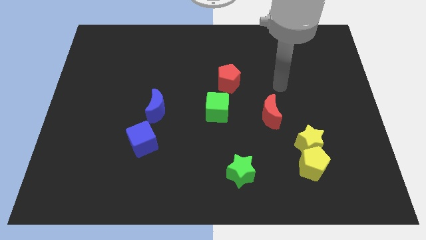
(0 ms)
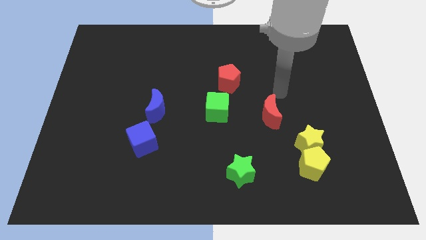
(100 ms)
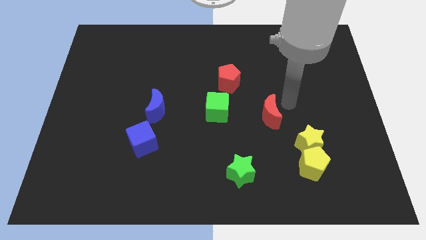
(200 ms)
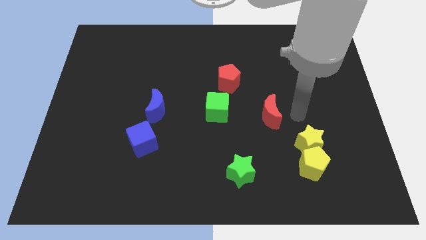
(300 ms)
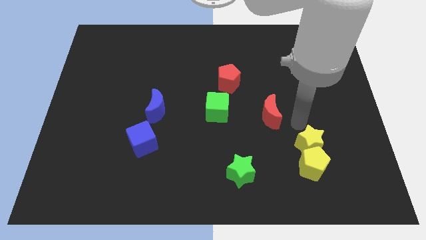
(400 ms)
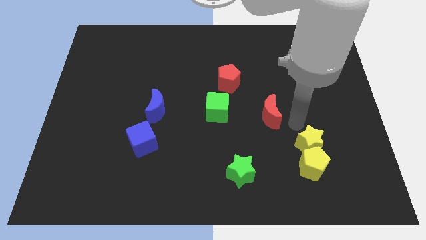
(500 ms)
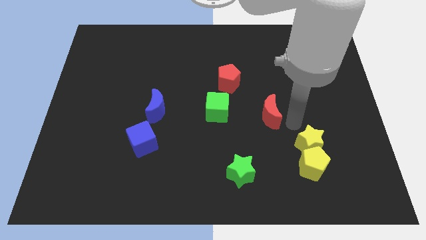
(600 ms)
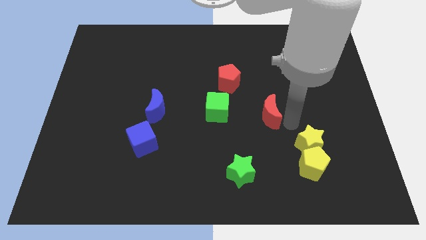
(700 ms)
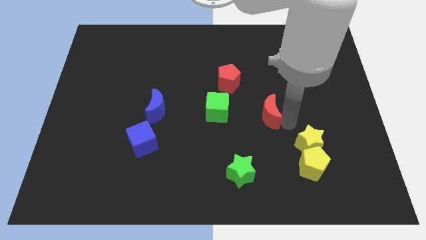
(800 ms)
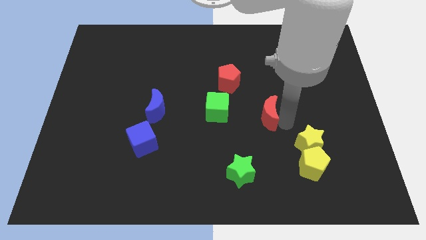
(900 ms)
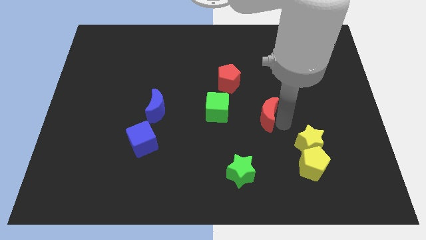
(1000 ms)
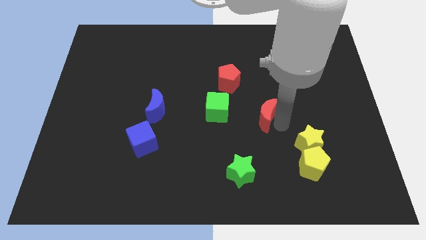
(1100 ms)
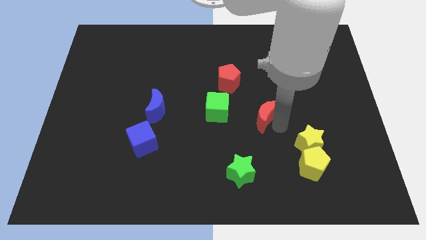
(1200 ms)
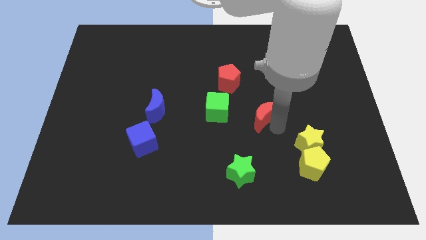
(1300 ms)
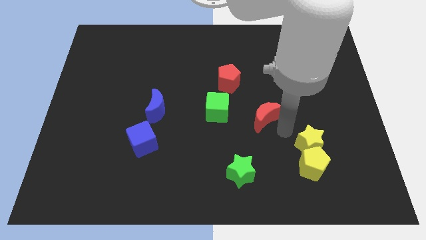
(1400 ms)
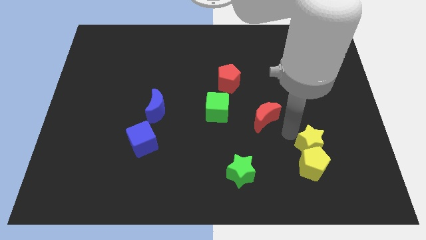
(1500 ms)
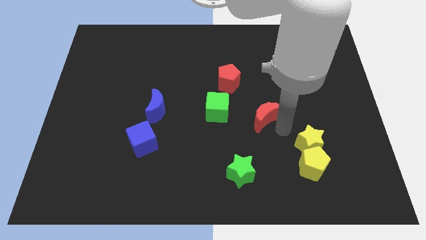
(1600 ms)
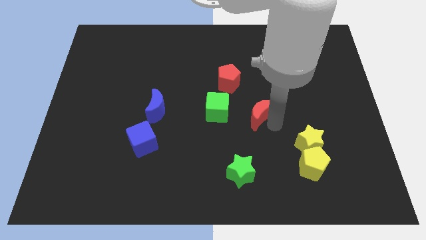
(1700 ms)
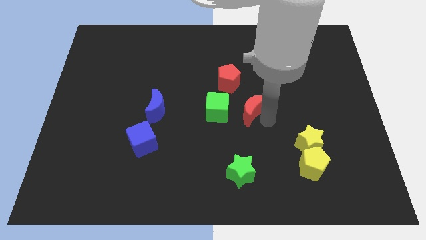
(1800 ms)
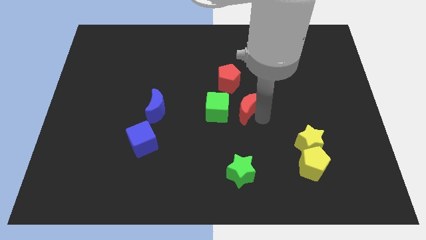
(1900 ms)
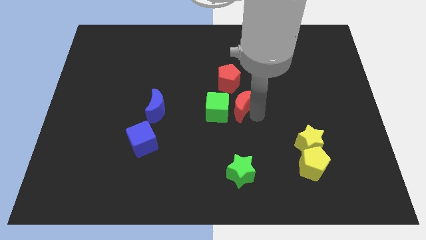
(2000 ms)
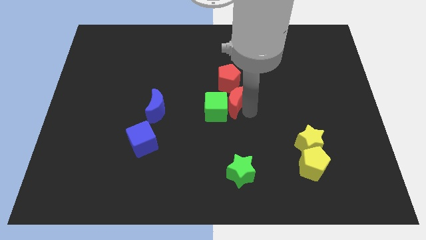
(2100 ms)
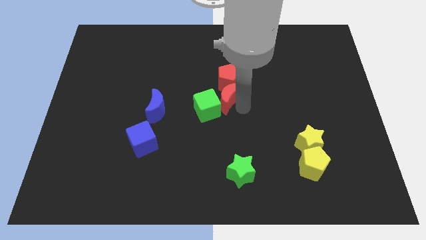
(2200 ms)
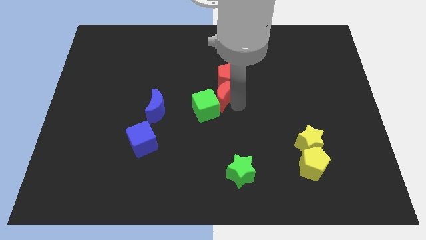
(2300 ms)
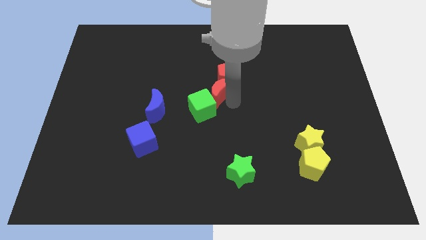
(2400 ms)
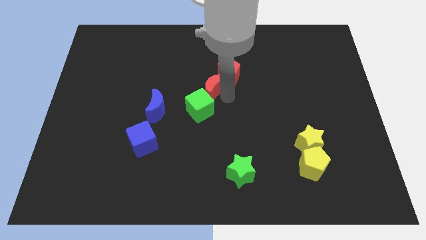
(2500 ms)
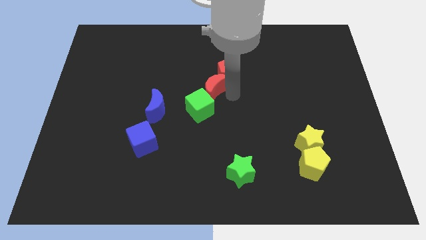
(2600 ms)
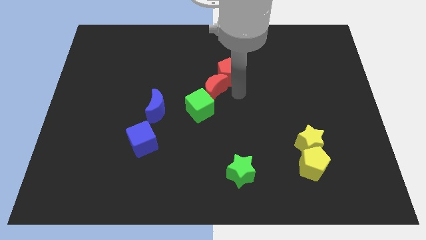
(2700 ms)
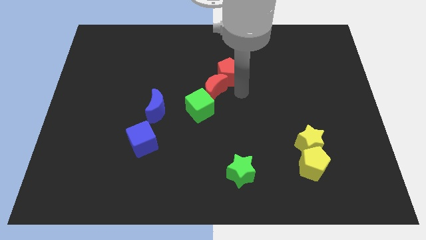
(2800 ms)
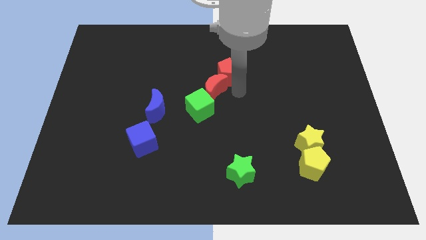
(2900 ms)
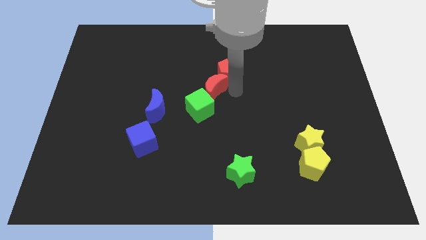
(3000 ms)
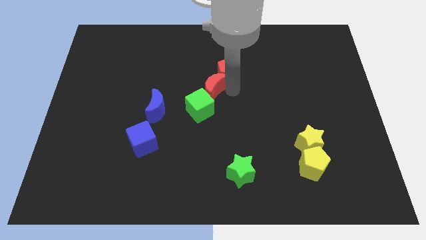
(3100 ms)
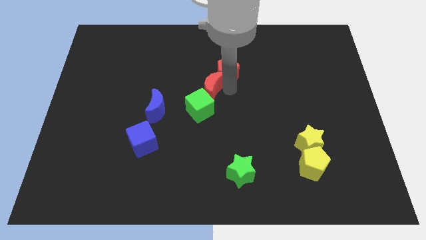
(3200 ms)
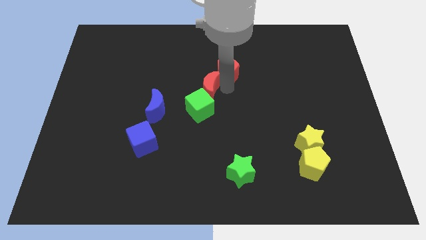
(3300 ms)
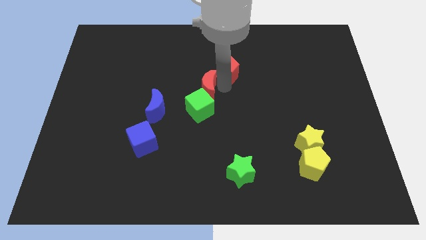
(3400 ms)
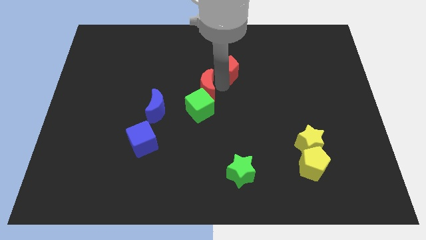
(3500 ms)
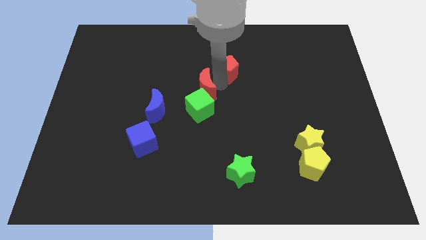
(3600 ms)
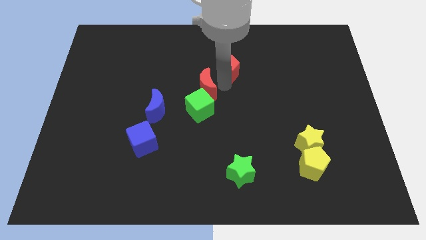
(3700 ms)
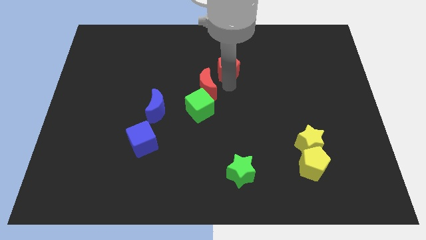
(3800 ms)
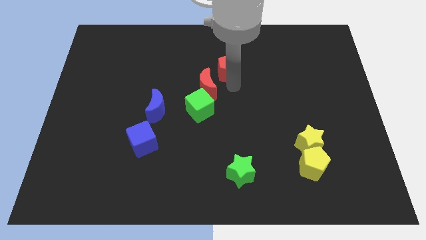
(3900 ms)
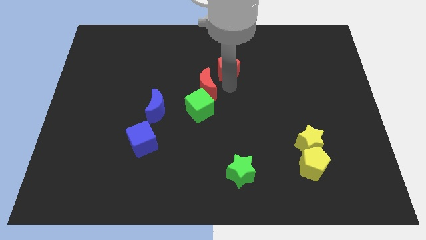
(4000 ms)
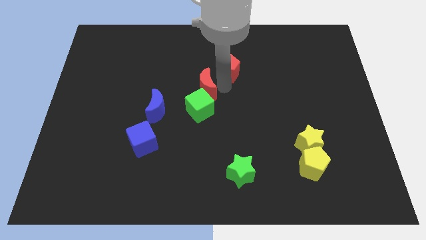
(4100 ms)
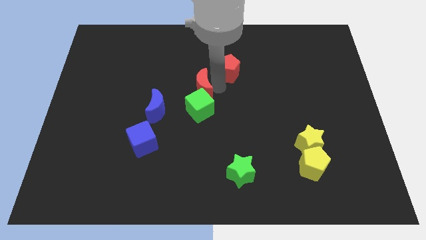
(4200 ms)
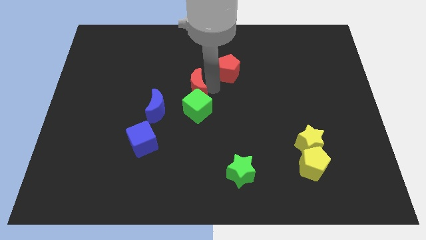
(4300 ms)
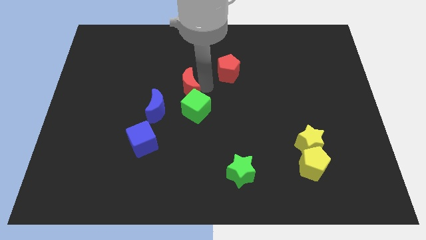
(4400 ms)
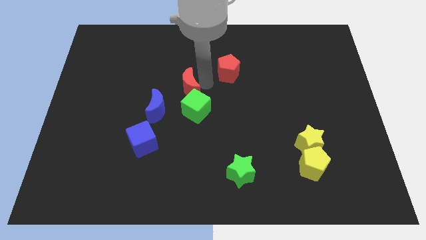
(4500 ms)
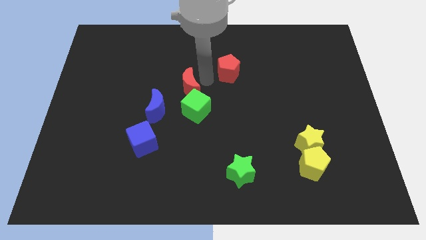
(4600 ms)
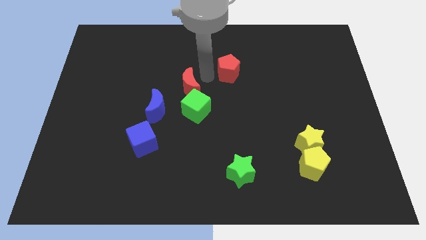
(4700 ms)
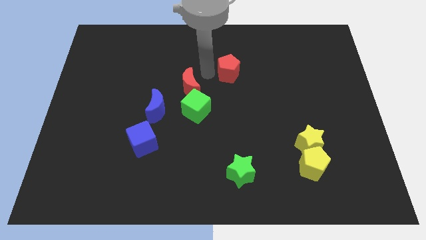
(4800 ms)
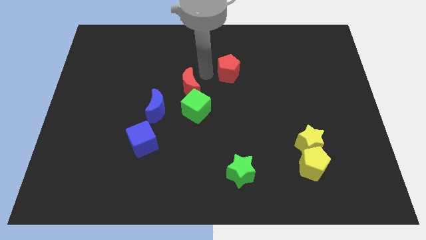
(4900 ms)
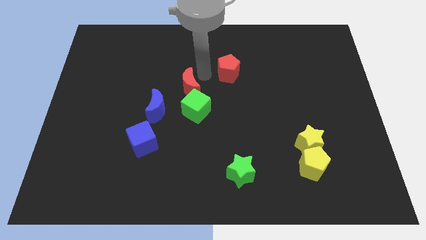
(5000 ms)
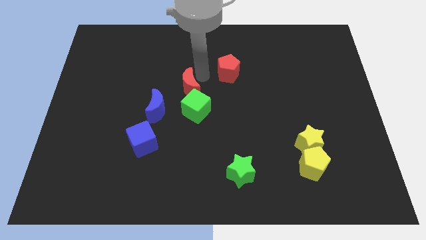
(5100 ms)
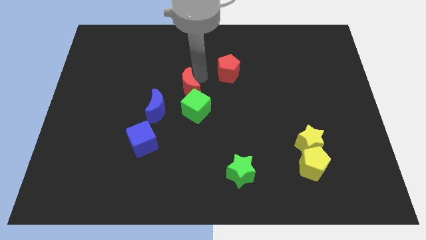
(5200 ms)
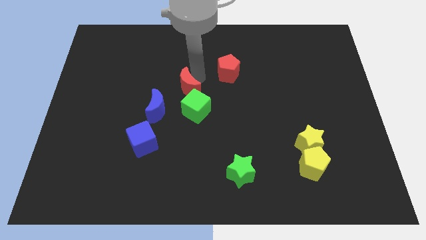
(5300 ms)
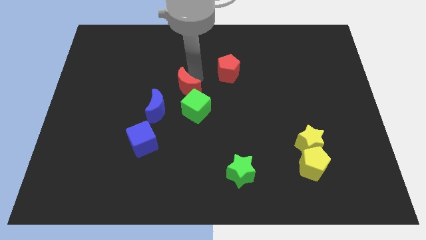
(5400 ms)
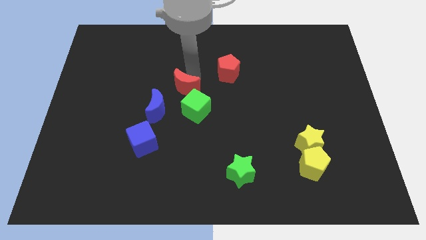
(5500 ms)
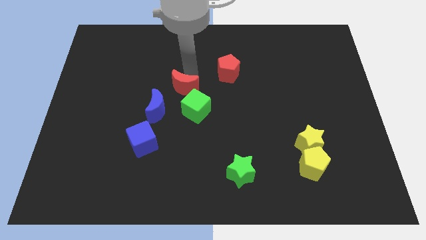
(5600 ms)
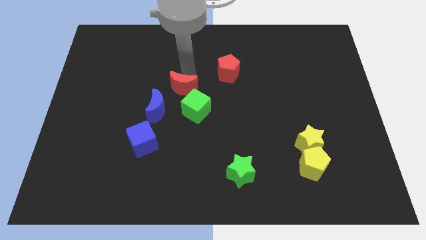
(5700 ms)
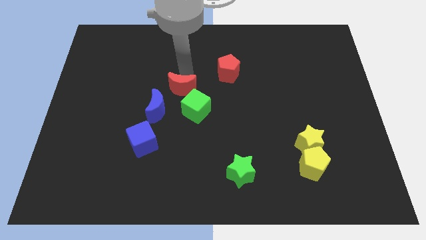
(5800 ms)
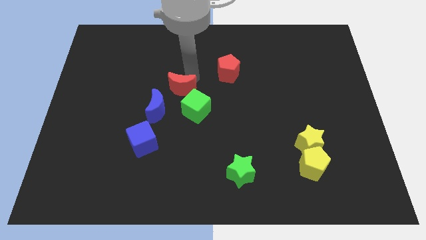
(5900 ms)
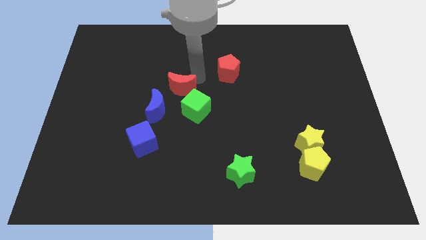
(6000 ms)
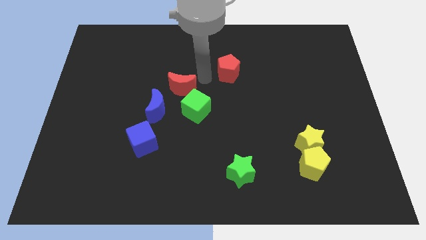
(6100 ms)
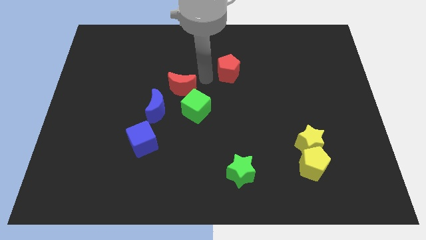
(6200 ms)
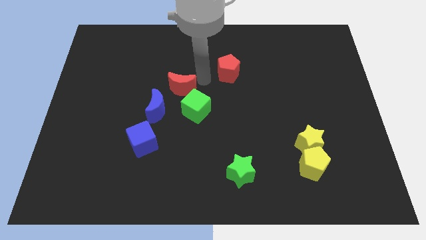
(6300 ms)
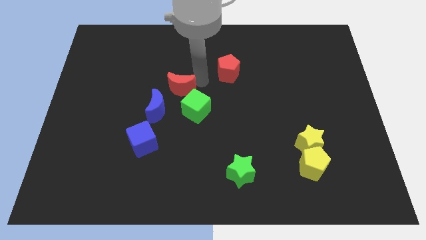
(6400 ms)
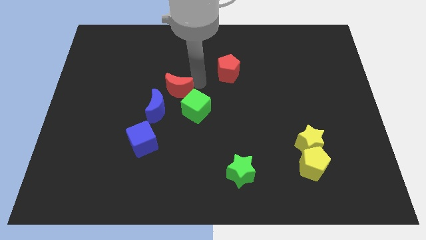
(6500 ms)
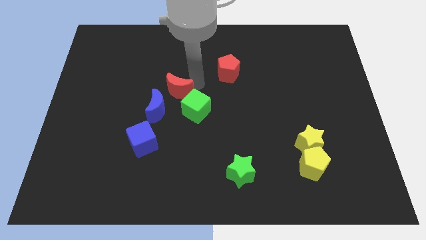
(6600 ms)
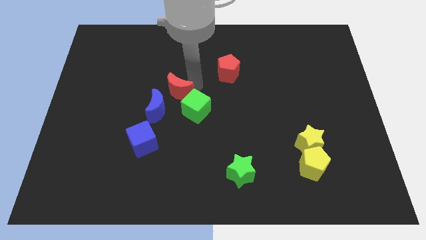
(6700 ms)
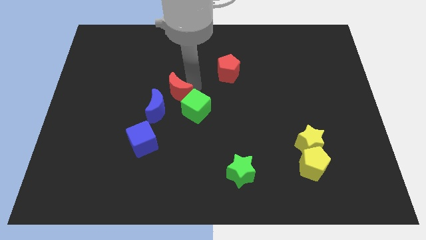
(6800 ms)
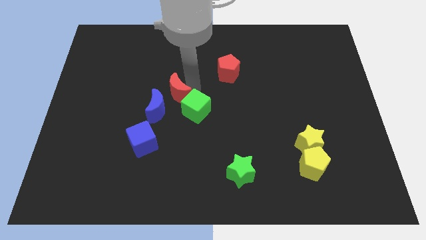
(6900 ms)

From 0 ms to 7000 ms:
push the red moon left

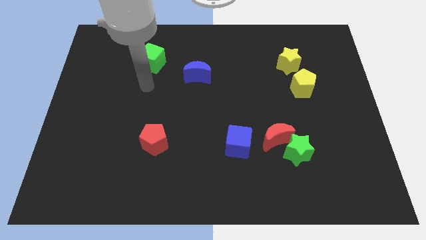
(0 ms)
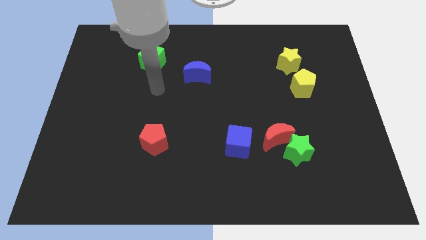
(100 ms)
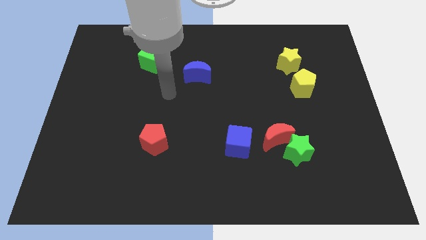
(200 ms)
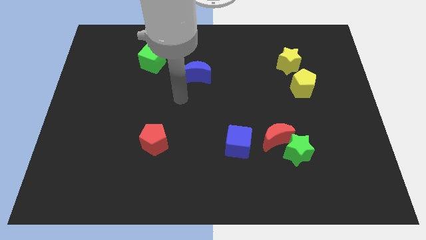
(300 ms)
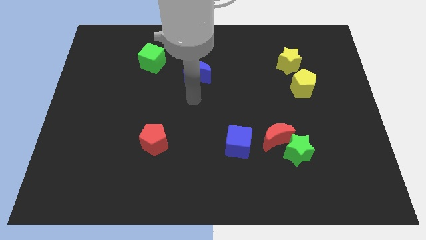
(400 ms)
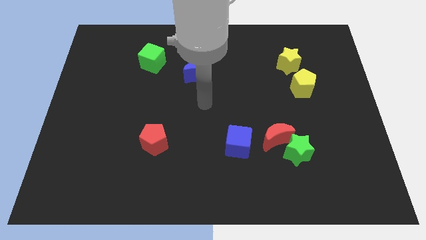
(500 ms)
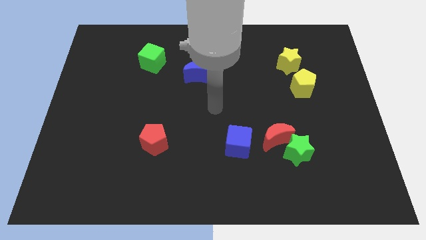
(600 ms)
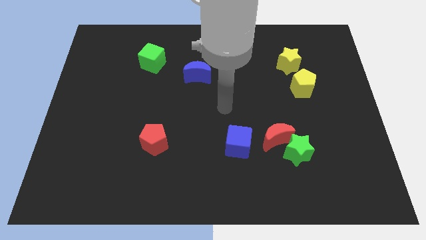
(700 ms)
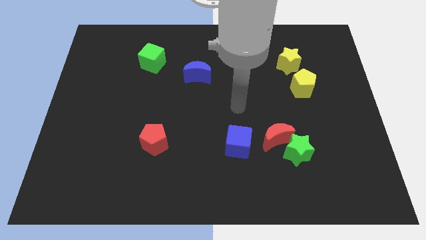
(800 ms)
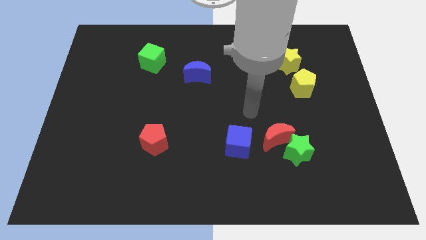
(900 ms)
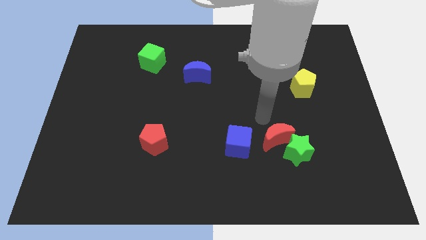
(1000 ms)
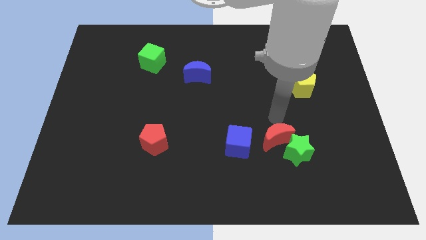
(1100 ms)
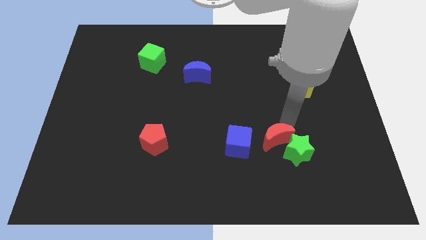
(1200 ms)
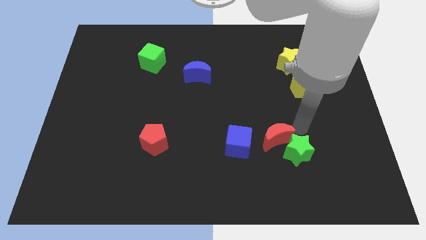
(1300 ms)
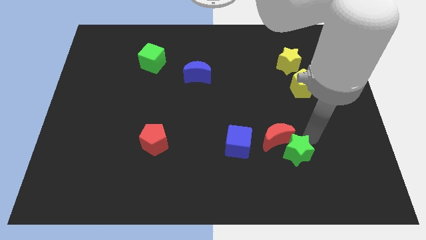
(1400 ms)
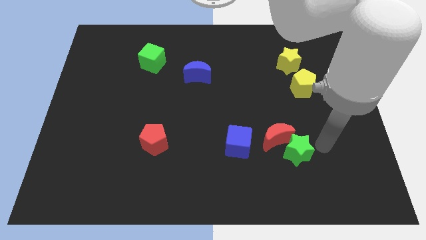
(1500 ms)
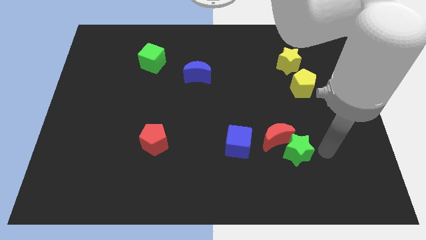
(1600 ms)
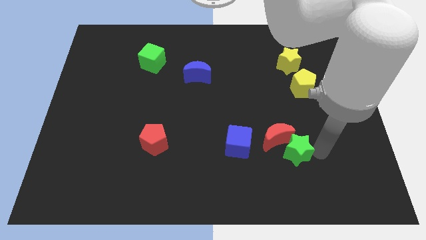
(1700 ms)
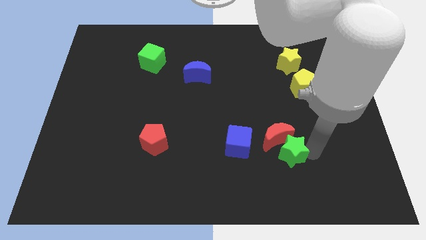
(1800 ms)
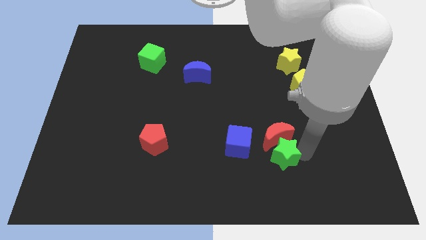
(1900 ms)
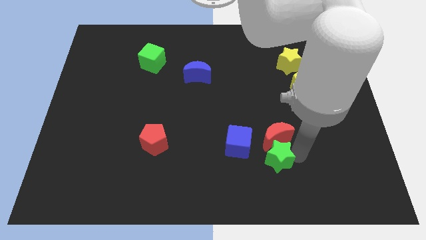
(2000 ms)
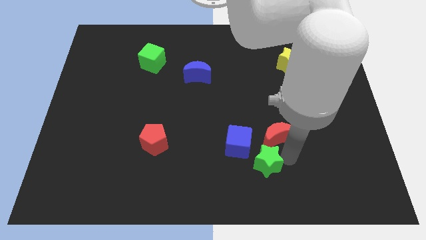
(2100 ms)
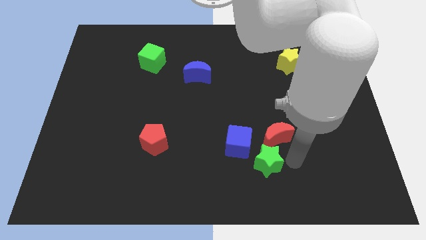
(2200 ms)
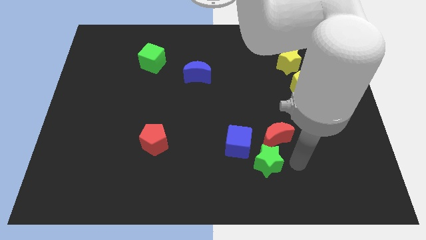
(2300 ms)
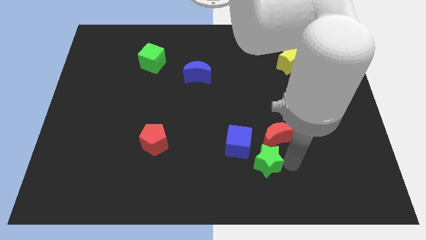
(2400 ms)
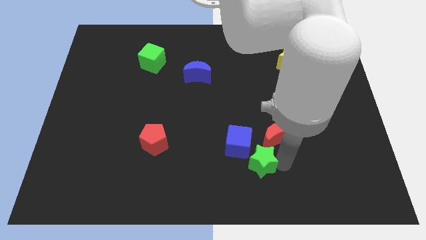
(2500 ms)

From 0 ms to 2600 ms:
slide the green star left somewhat
